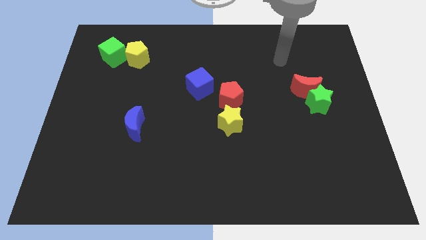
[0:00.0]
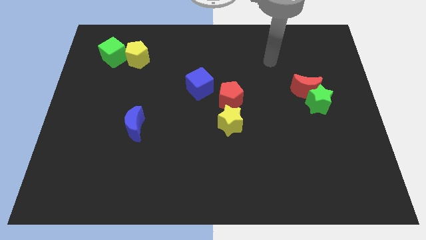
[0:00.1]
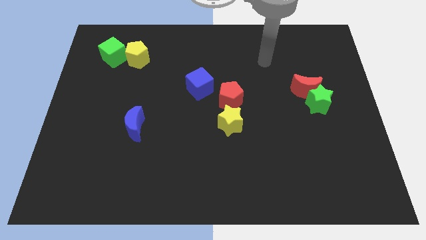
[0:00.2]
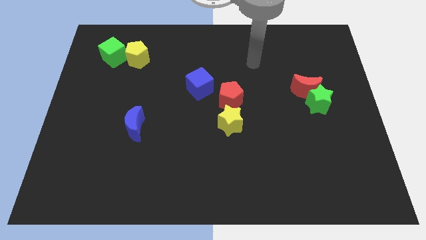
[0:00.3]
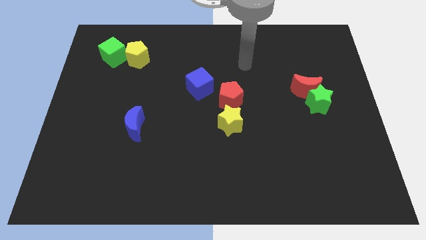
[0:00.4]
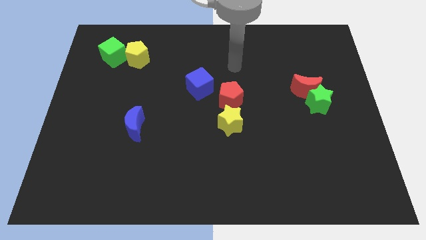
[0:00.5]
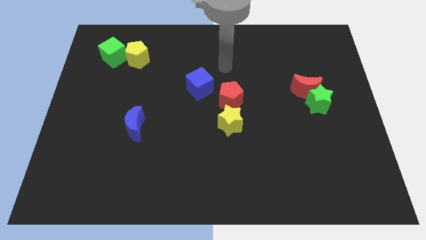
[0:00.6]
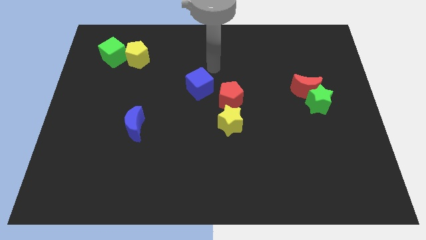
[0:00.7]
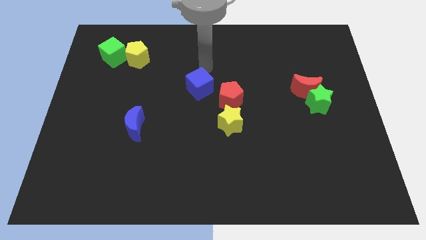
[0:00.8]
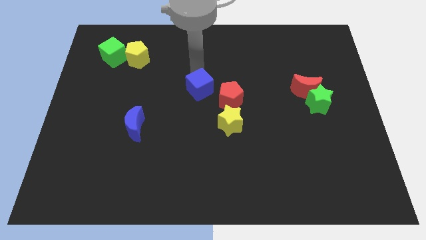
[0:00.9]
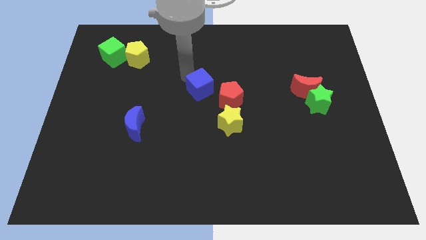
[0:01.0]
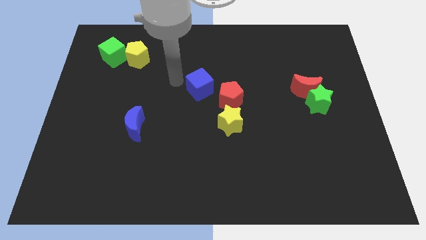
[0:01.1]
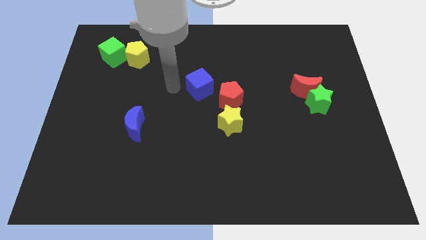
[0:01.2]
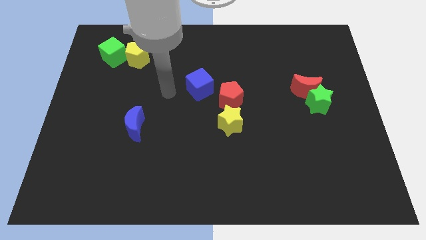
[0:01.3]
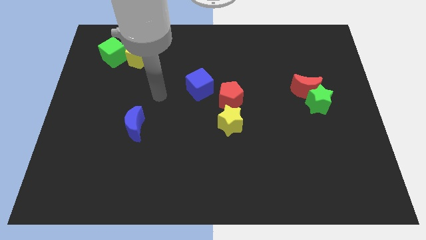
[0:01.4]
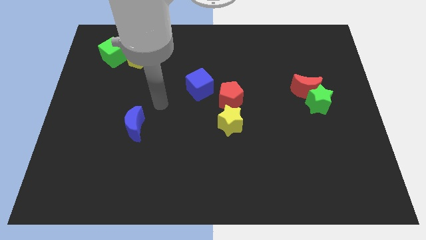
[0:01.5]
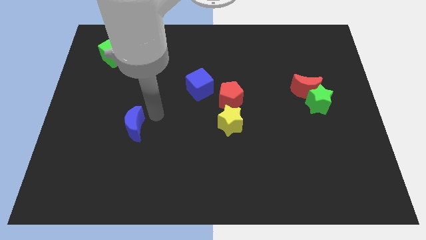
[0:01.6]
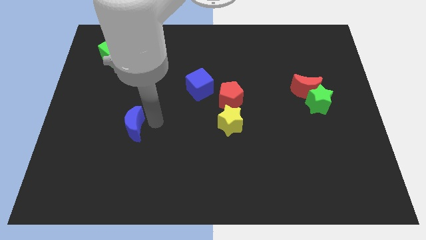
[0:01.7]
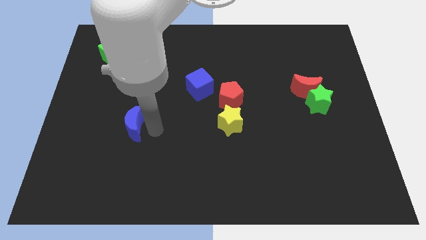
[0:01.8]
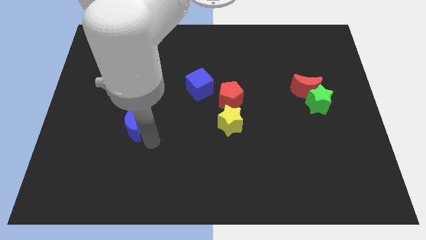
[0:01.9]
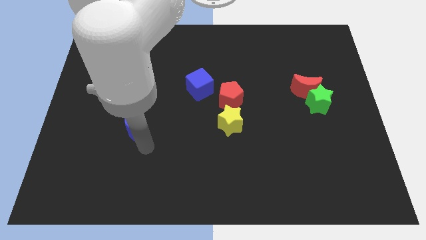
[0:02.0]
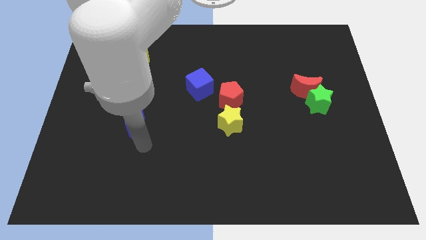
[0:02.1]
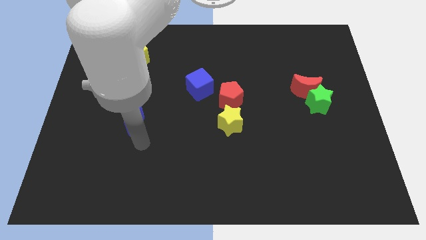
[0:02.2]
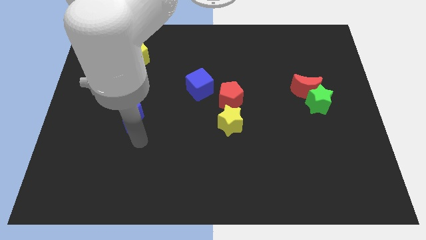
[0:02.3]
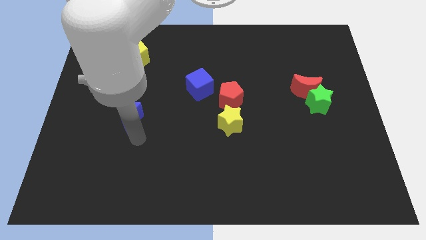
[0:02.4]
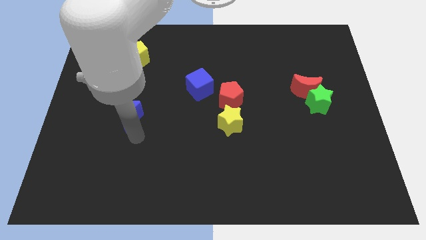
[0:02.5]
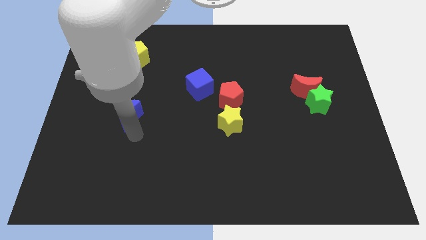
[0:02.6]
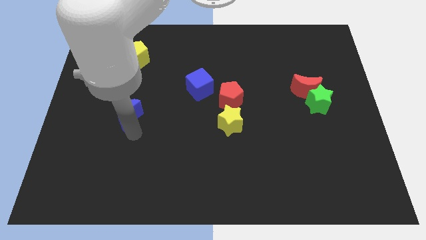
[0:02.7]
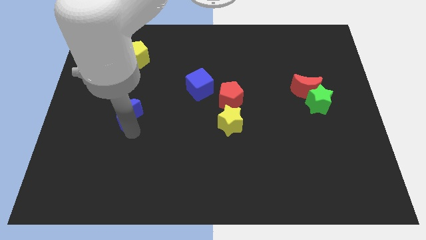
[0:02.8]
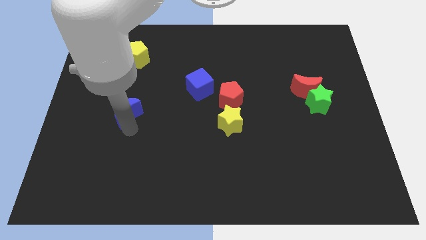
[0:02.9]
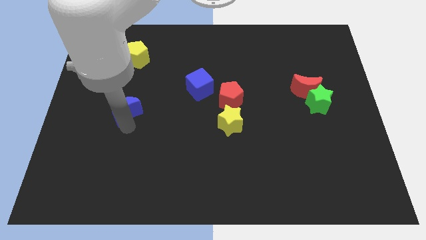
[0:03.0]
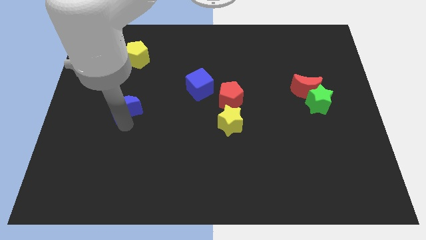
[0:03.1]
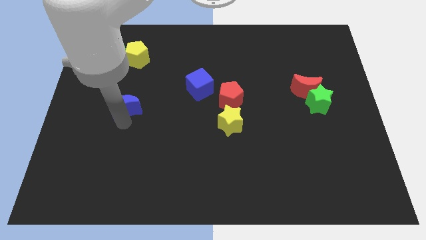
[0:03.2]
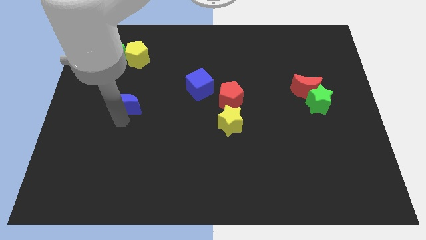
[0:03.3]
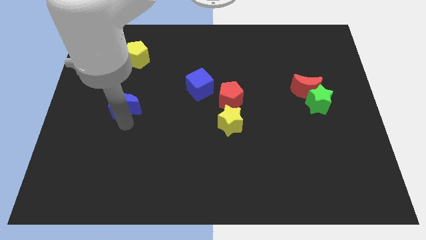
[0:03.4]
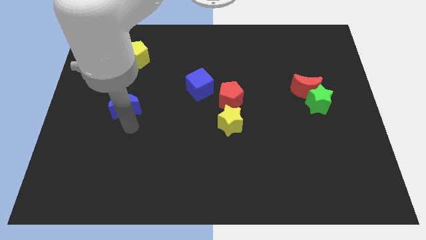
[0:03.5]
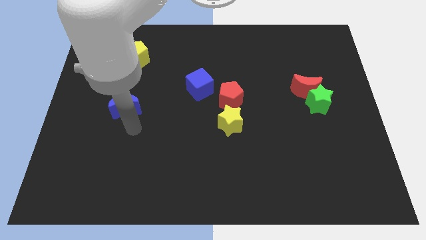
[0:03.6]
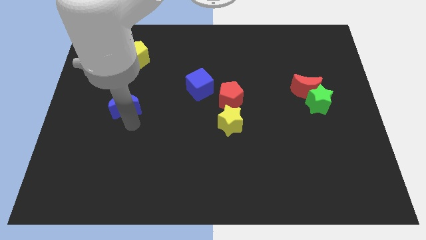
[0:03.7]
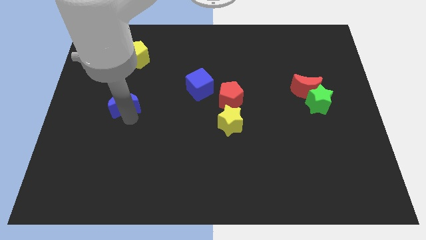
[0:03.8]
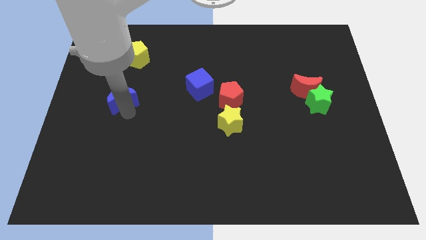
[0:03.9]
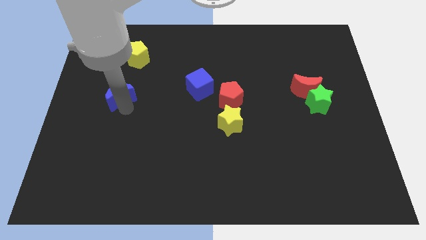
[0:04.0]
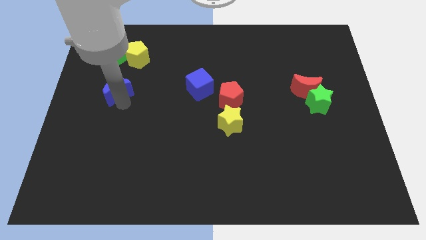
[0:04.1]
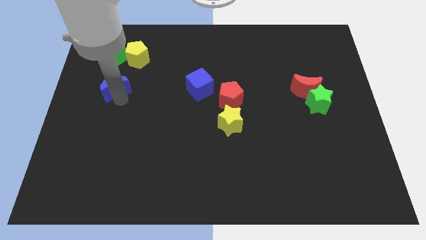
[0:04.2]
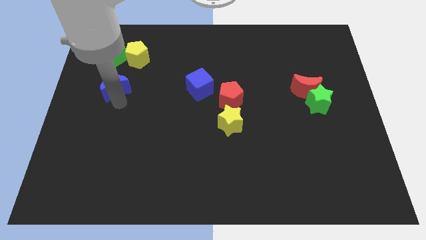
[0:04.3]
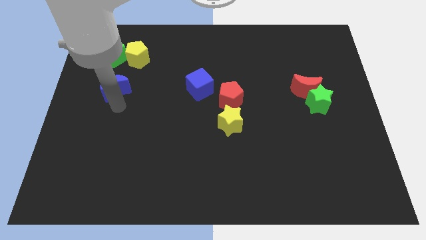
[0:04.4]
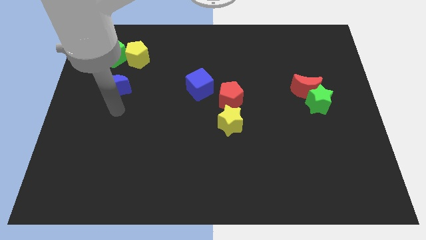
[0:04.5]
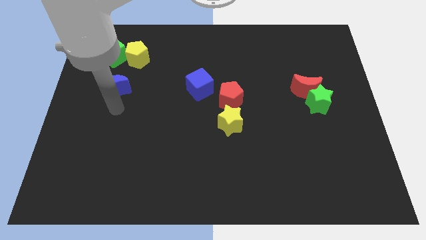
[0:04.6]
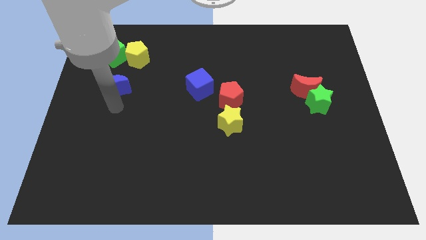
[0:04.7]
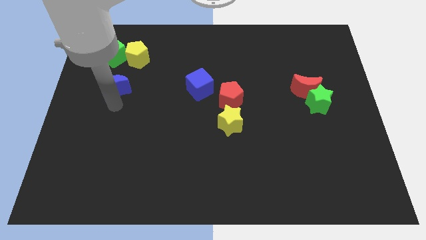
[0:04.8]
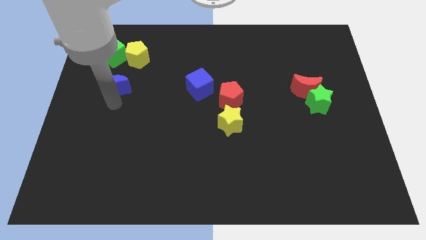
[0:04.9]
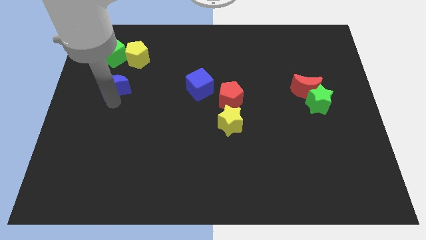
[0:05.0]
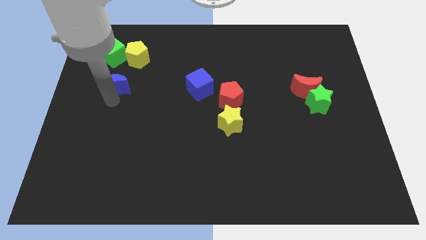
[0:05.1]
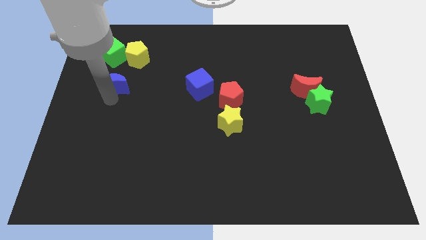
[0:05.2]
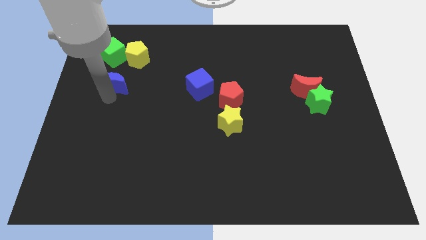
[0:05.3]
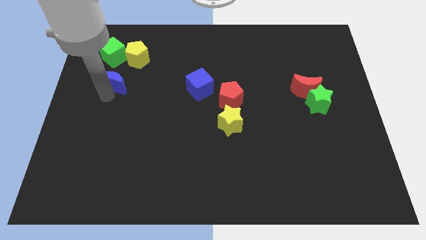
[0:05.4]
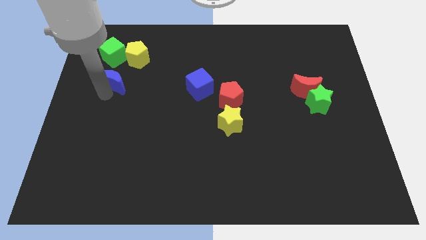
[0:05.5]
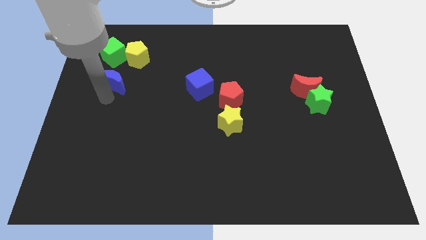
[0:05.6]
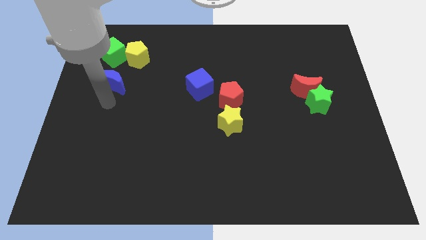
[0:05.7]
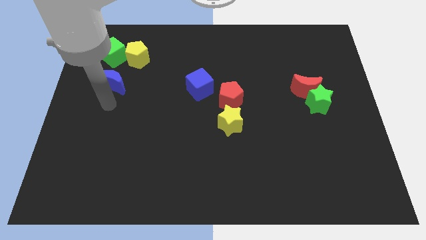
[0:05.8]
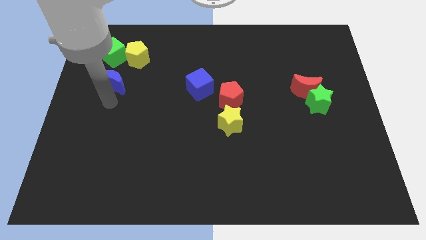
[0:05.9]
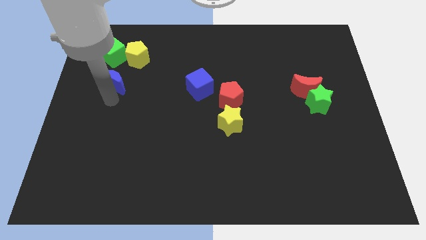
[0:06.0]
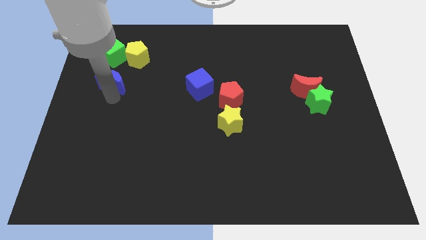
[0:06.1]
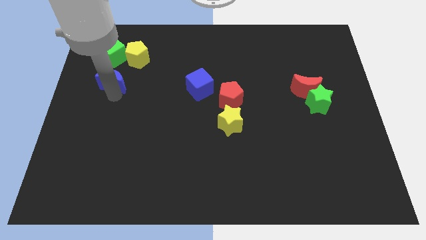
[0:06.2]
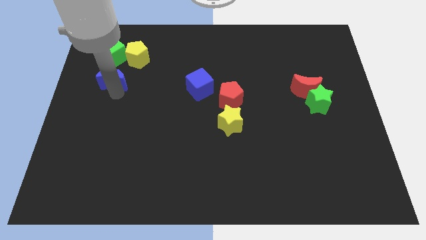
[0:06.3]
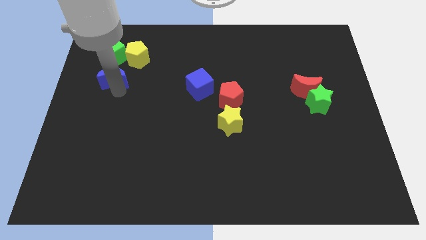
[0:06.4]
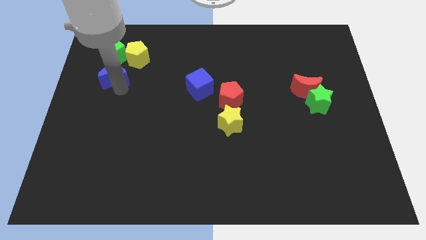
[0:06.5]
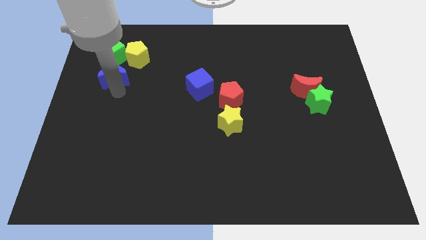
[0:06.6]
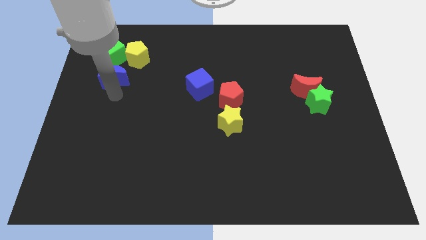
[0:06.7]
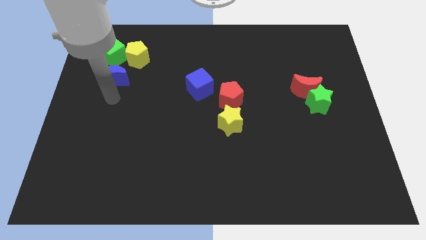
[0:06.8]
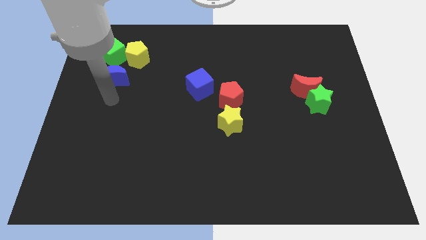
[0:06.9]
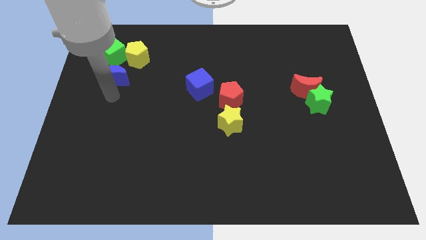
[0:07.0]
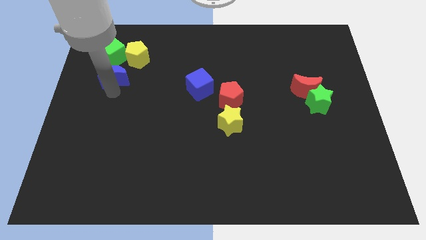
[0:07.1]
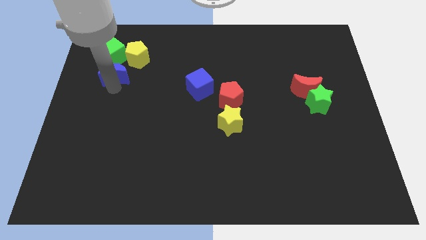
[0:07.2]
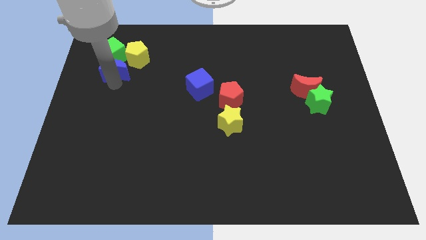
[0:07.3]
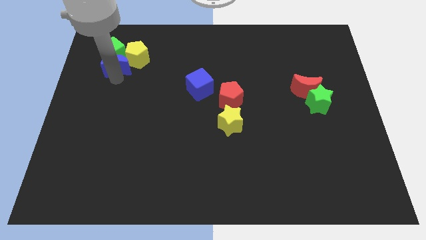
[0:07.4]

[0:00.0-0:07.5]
slide the blue moon next to the green cube
